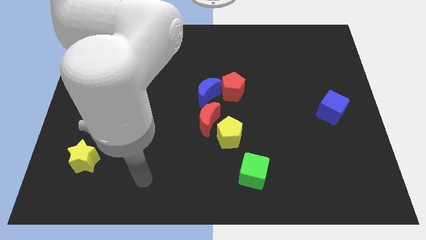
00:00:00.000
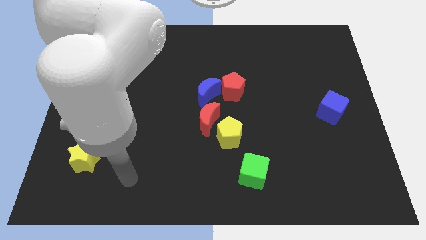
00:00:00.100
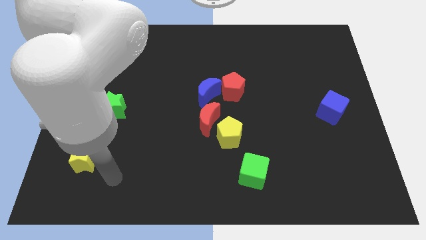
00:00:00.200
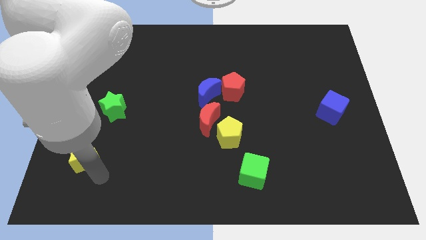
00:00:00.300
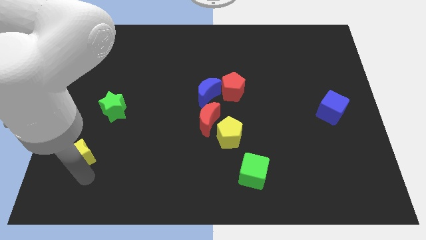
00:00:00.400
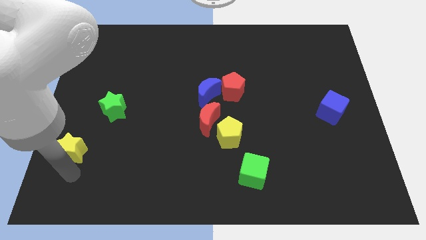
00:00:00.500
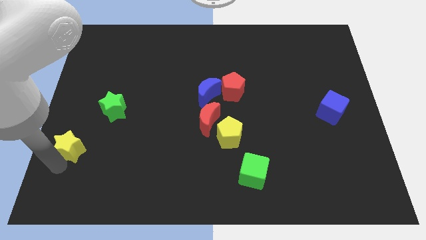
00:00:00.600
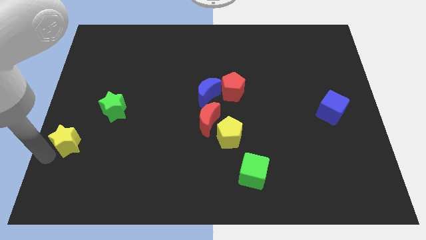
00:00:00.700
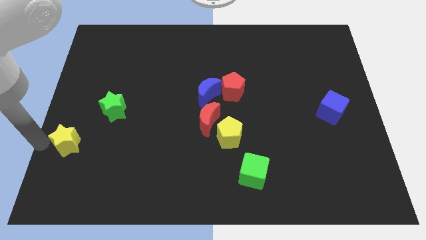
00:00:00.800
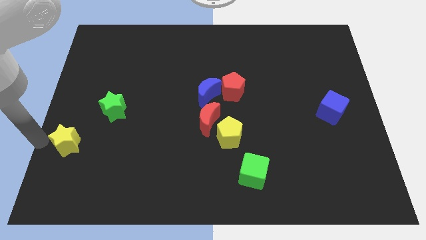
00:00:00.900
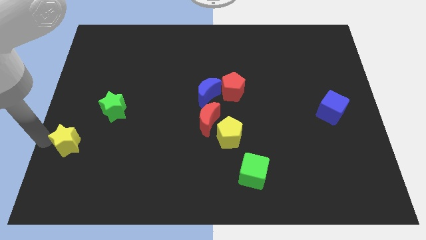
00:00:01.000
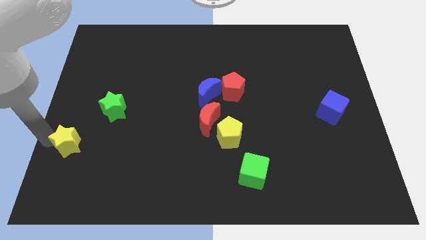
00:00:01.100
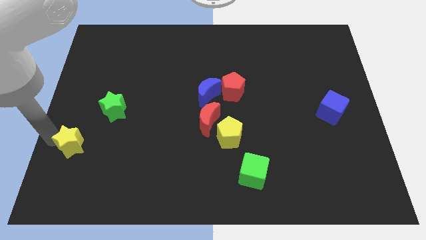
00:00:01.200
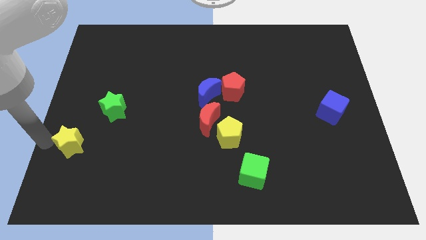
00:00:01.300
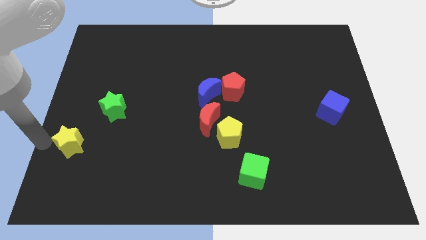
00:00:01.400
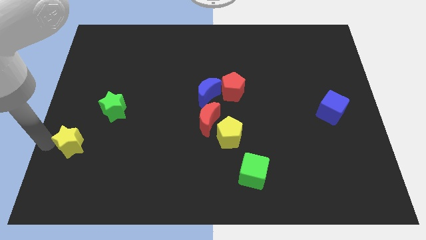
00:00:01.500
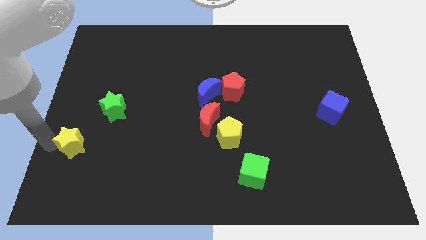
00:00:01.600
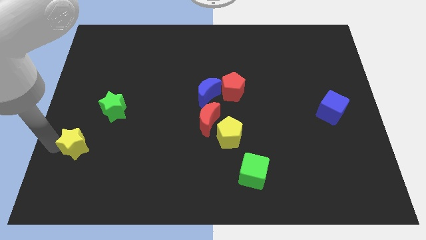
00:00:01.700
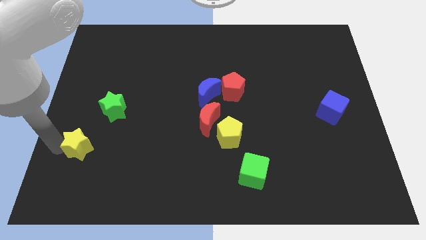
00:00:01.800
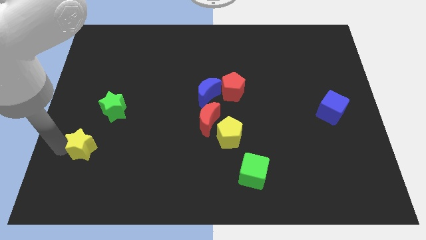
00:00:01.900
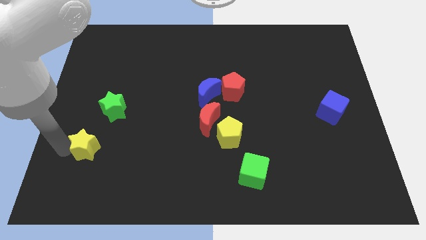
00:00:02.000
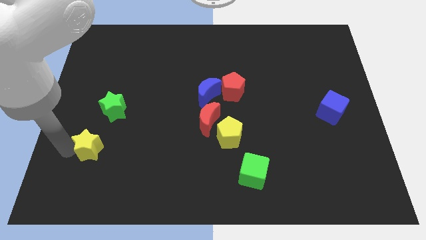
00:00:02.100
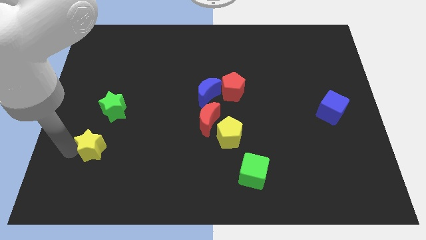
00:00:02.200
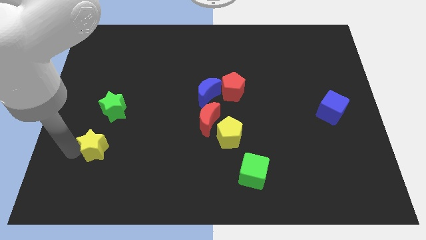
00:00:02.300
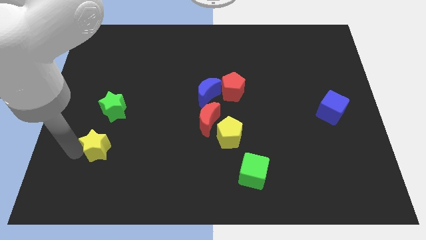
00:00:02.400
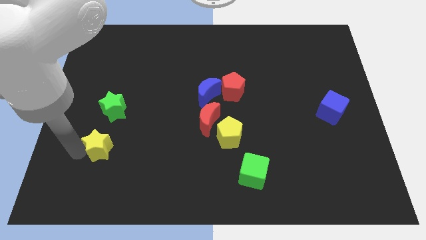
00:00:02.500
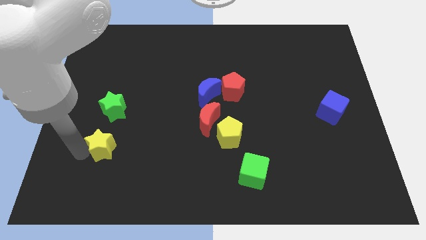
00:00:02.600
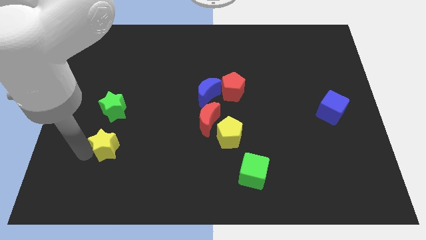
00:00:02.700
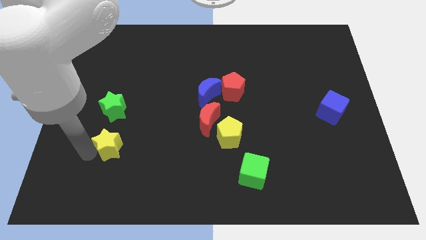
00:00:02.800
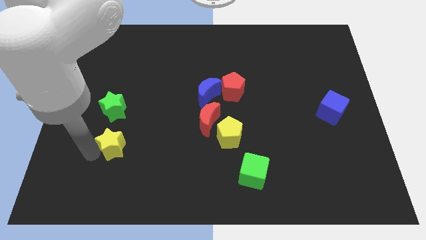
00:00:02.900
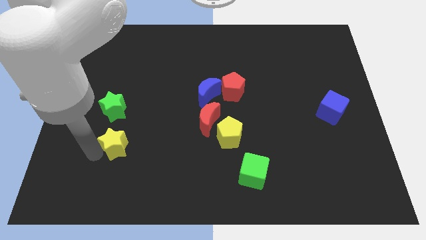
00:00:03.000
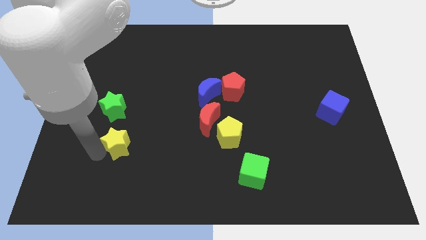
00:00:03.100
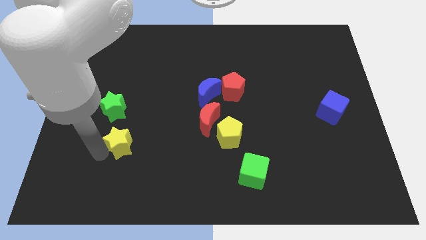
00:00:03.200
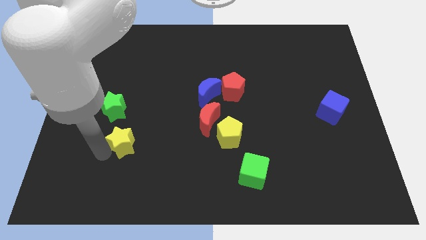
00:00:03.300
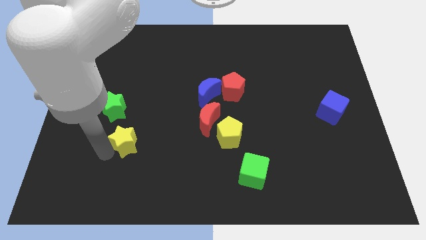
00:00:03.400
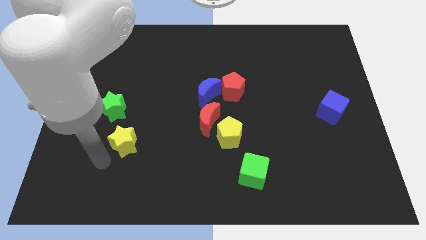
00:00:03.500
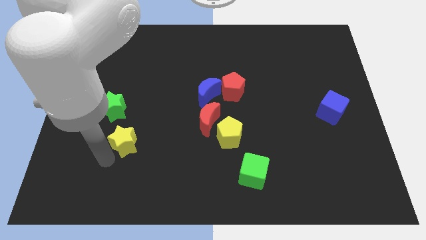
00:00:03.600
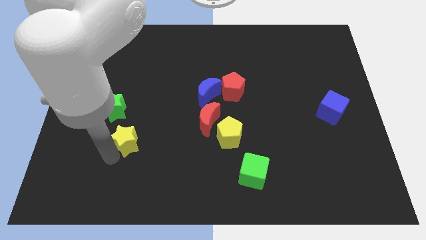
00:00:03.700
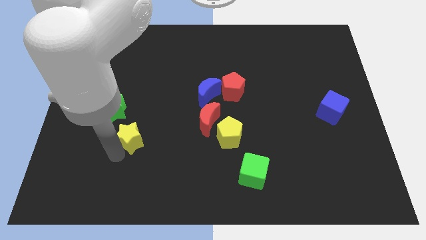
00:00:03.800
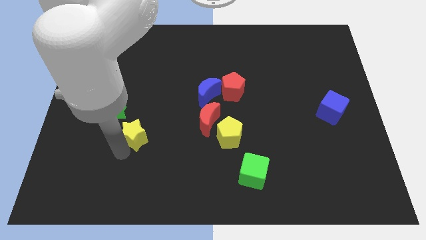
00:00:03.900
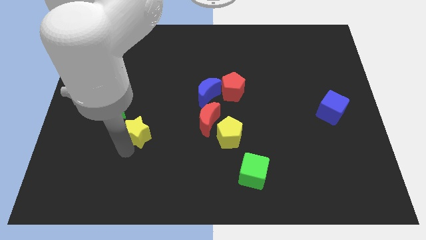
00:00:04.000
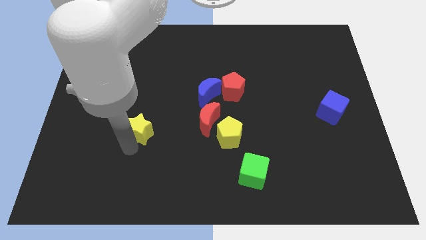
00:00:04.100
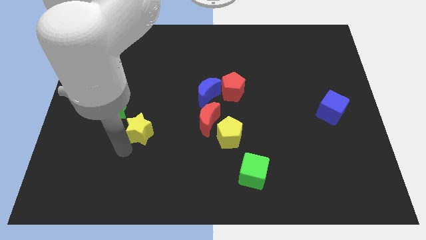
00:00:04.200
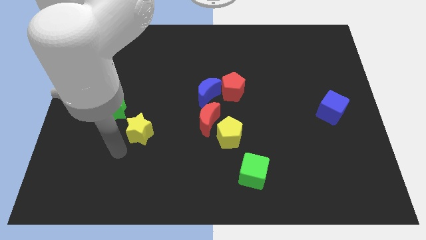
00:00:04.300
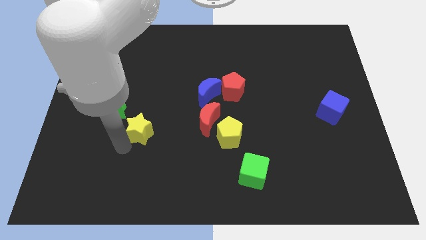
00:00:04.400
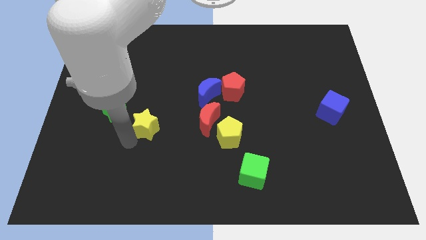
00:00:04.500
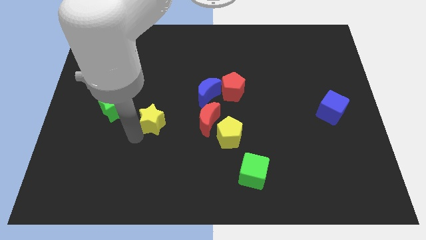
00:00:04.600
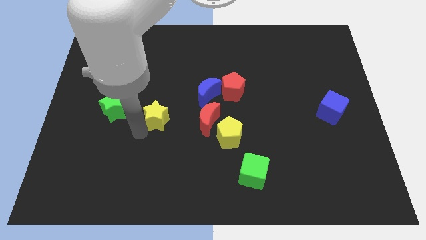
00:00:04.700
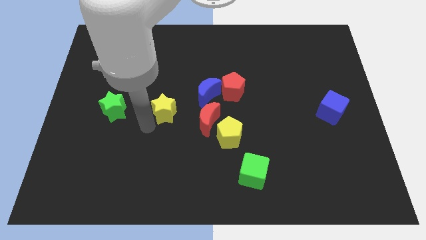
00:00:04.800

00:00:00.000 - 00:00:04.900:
push the yellow star upwards and to the right

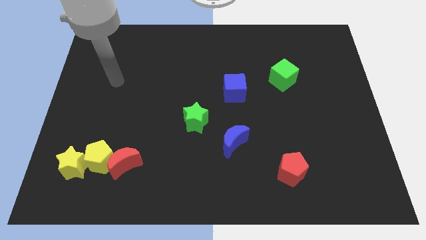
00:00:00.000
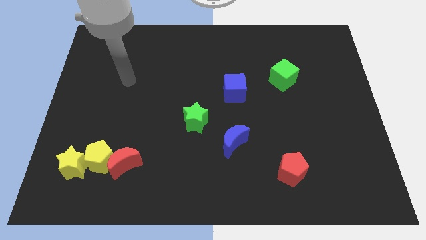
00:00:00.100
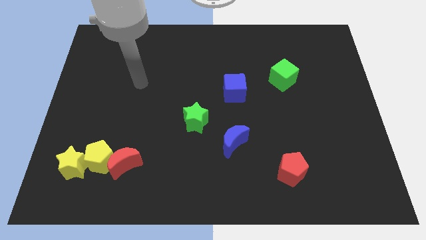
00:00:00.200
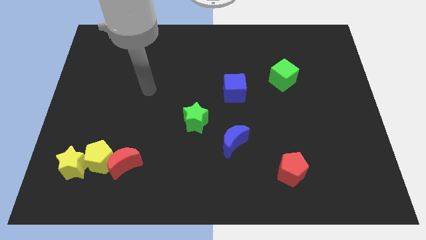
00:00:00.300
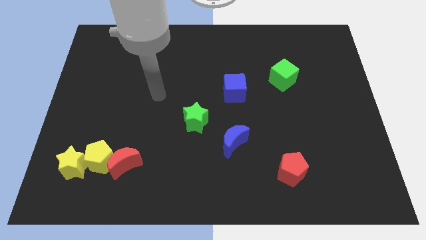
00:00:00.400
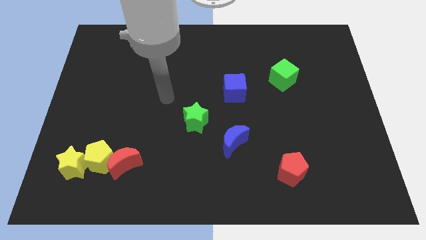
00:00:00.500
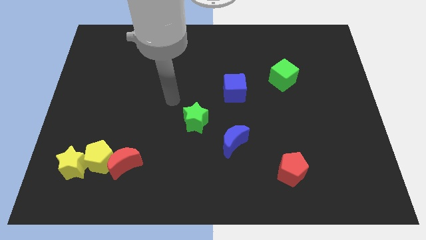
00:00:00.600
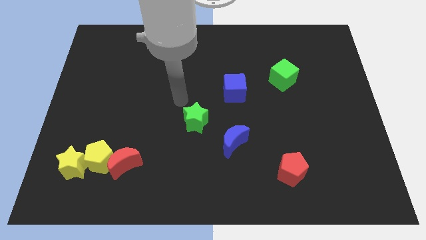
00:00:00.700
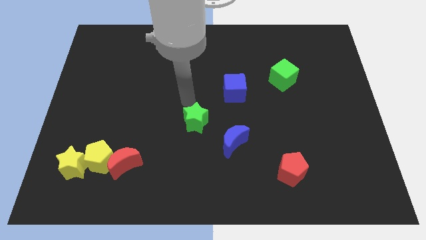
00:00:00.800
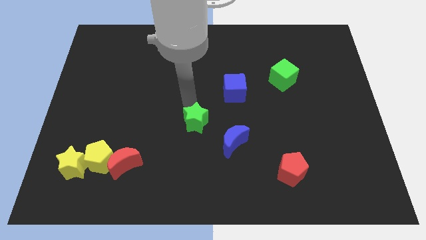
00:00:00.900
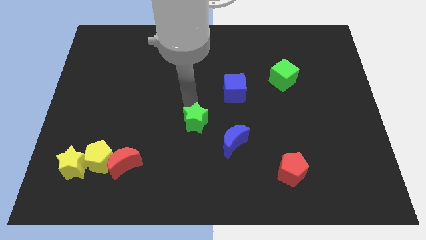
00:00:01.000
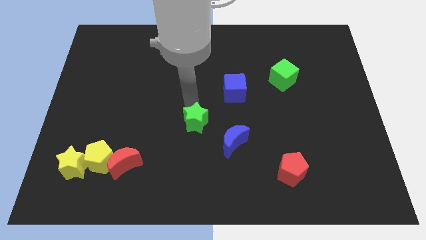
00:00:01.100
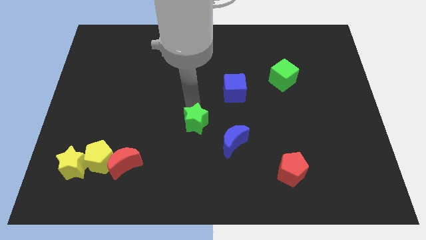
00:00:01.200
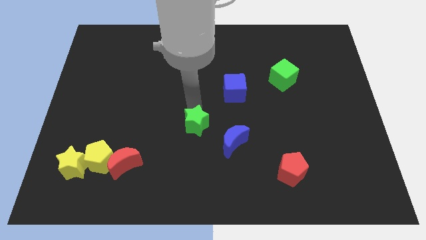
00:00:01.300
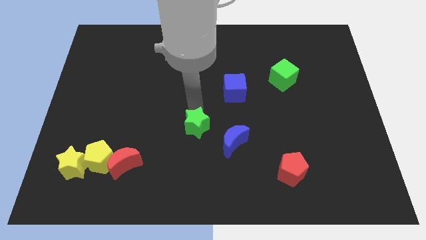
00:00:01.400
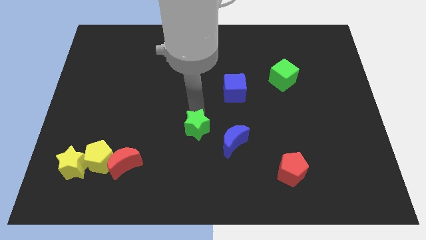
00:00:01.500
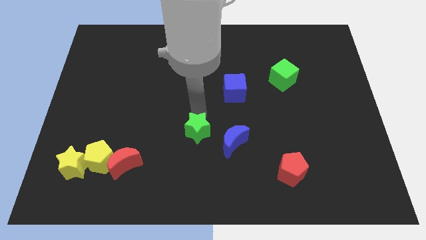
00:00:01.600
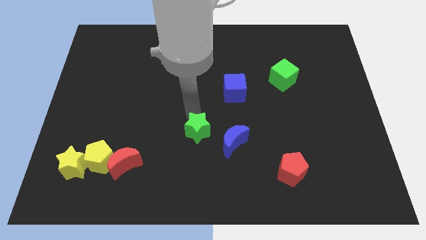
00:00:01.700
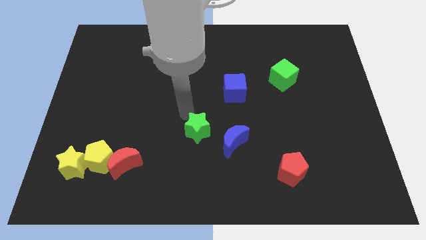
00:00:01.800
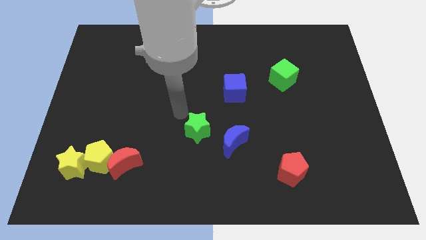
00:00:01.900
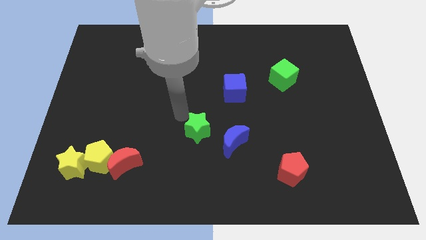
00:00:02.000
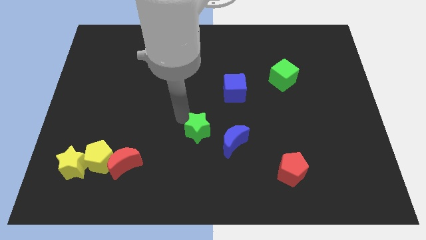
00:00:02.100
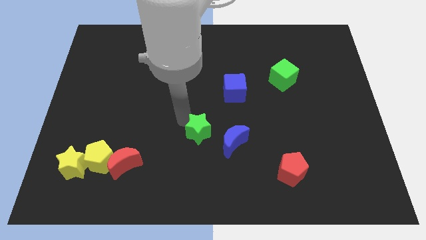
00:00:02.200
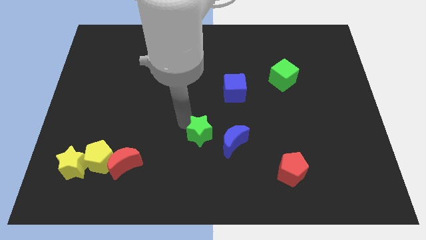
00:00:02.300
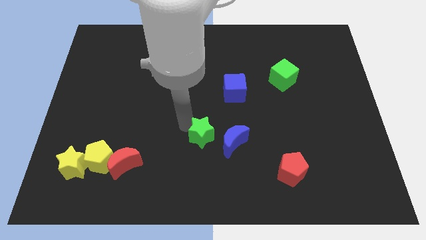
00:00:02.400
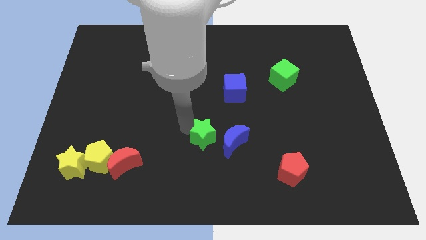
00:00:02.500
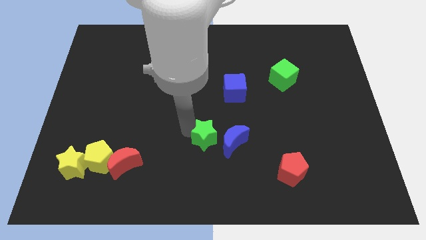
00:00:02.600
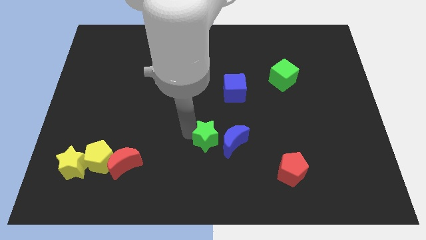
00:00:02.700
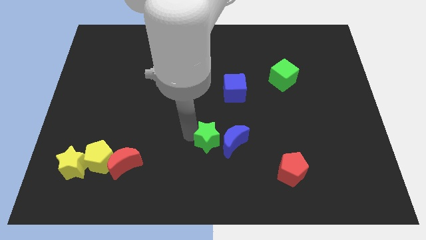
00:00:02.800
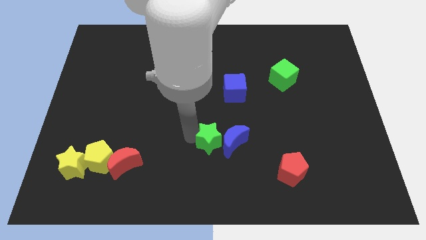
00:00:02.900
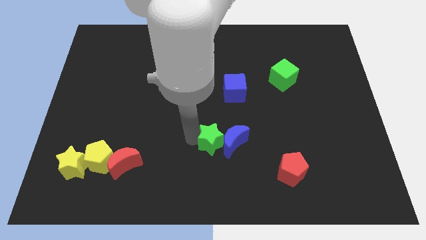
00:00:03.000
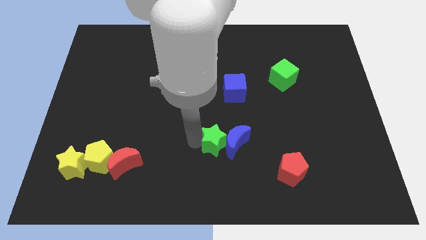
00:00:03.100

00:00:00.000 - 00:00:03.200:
push the green star a little bit downwards and to the right diagonally
